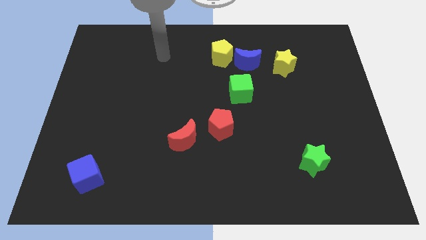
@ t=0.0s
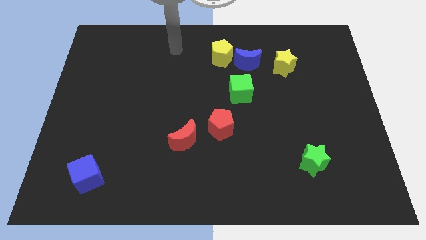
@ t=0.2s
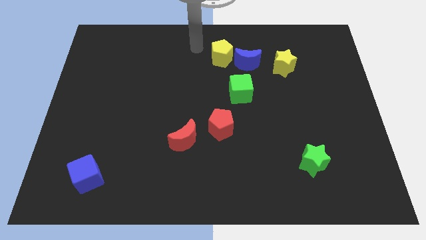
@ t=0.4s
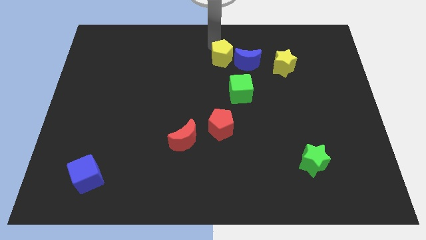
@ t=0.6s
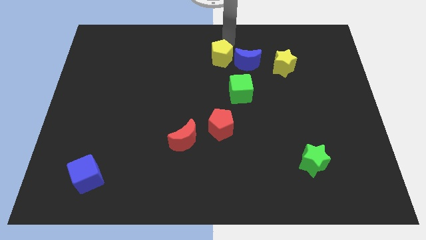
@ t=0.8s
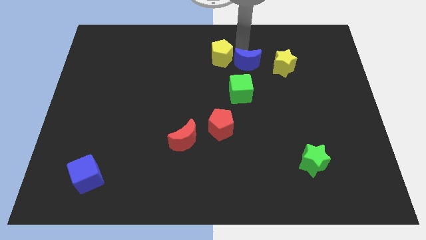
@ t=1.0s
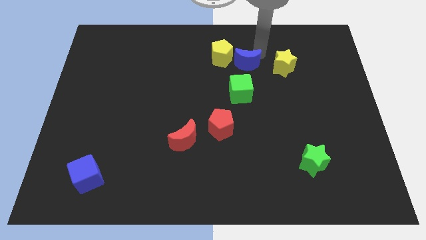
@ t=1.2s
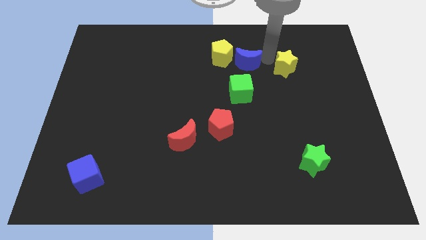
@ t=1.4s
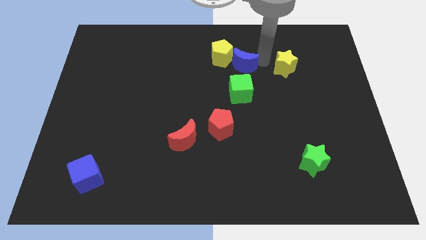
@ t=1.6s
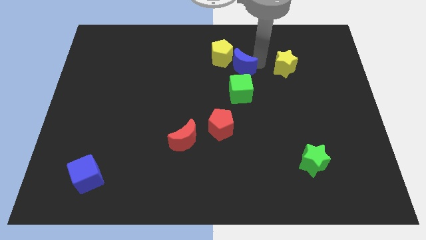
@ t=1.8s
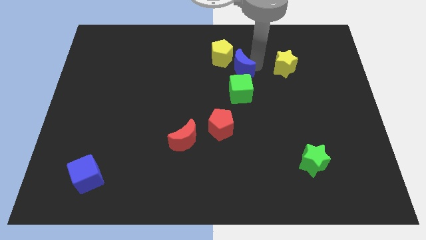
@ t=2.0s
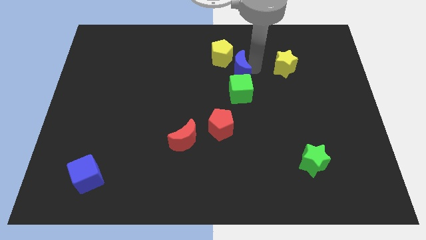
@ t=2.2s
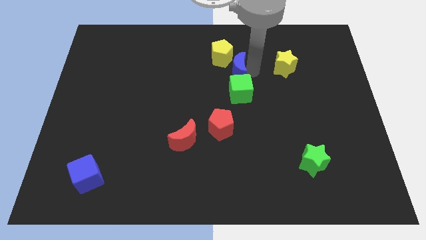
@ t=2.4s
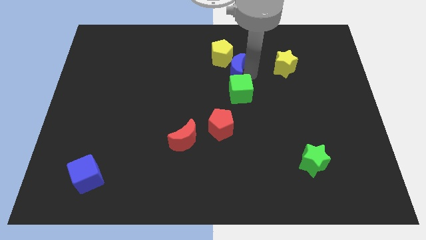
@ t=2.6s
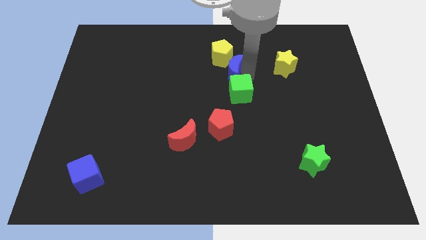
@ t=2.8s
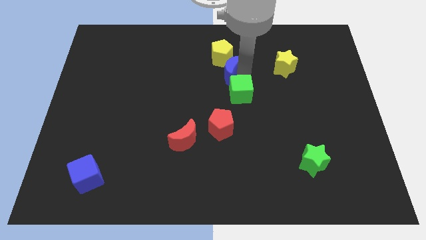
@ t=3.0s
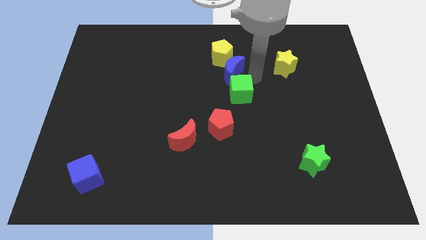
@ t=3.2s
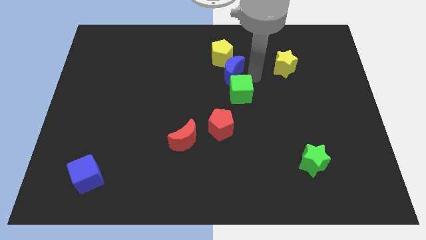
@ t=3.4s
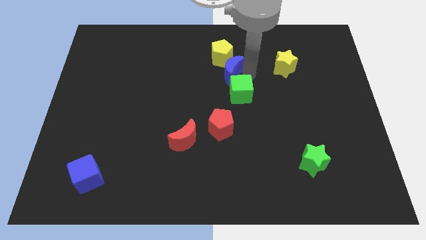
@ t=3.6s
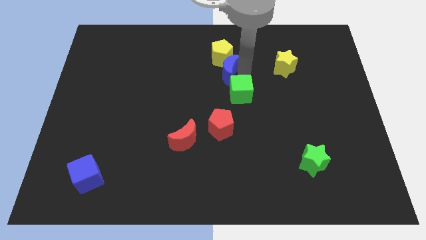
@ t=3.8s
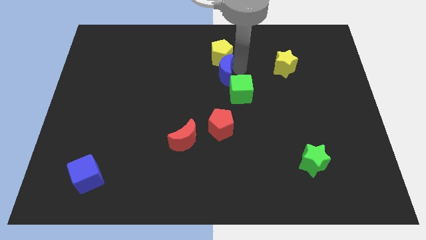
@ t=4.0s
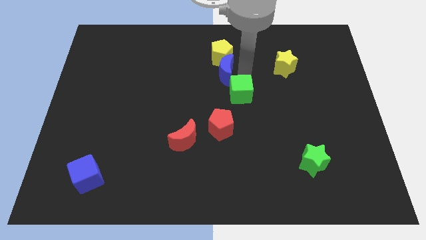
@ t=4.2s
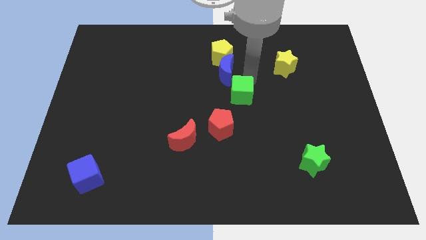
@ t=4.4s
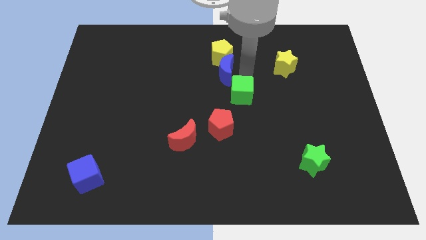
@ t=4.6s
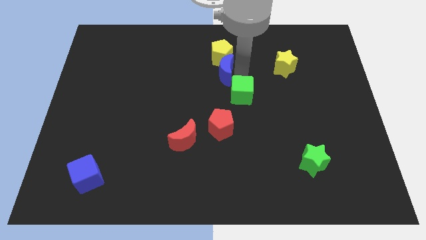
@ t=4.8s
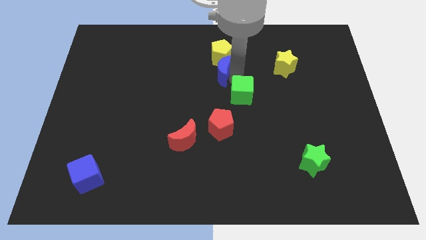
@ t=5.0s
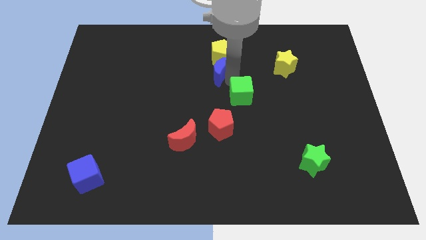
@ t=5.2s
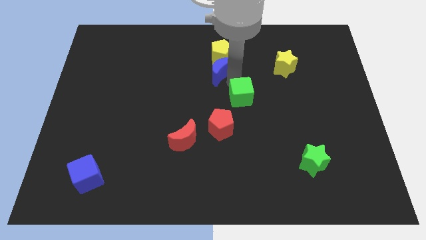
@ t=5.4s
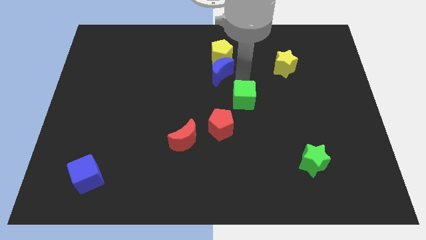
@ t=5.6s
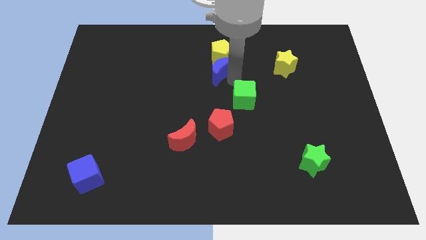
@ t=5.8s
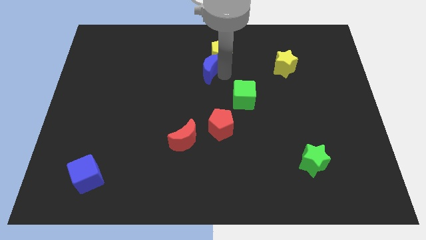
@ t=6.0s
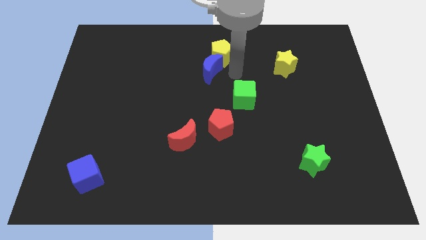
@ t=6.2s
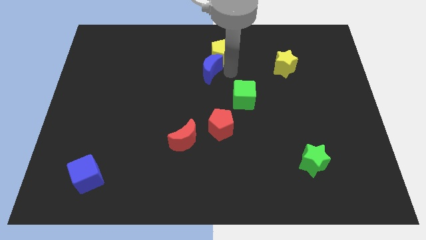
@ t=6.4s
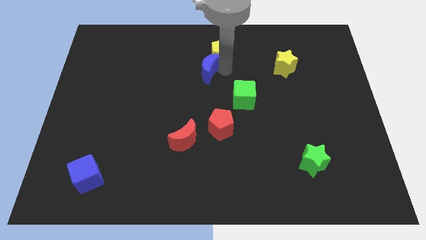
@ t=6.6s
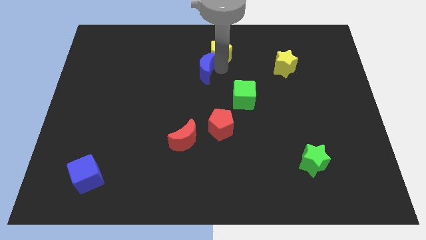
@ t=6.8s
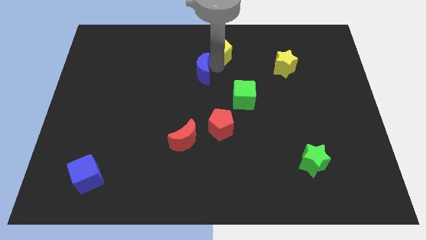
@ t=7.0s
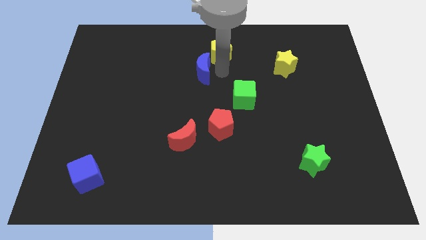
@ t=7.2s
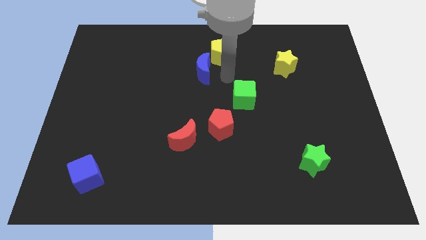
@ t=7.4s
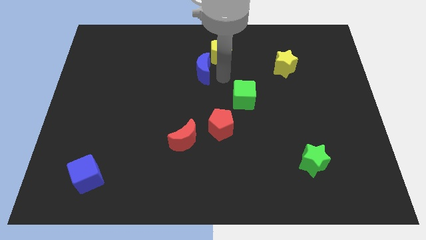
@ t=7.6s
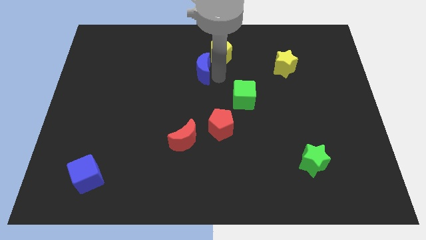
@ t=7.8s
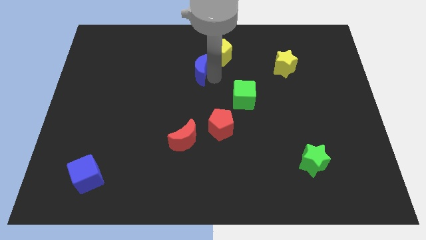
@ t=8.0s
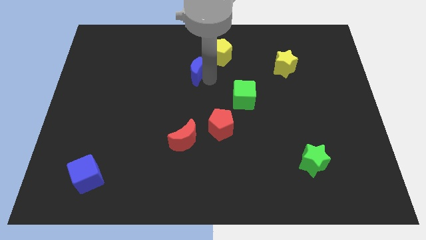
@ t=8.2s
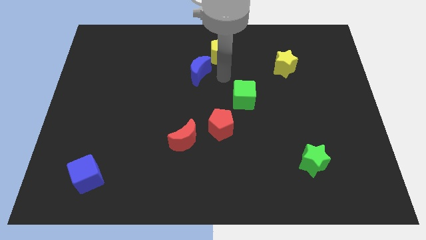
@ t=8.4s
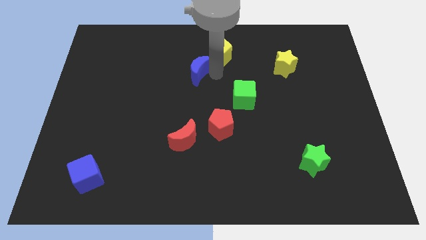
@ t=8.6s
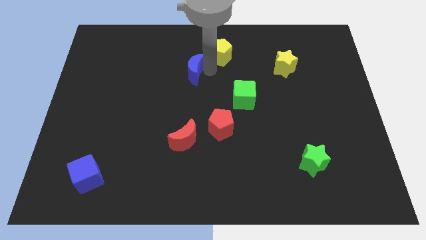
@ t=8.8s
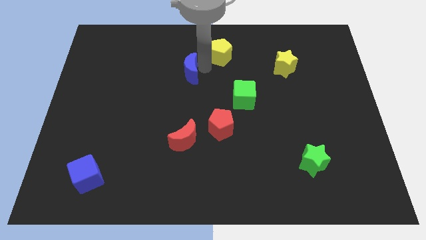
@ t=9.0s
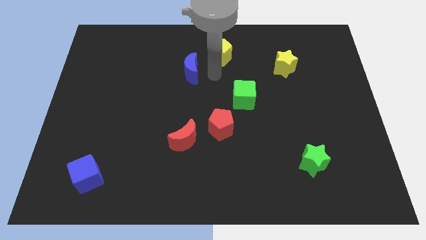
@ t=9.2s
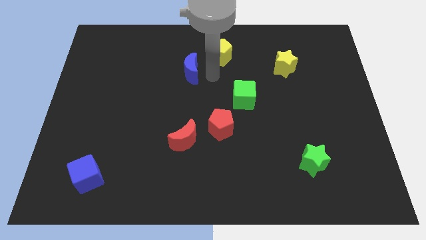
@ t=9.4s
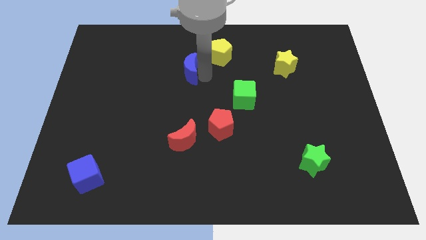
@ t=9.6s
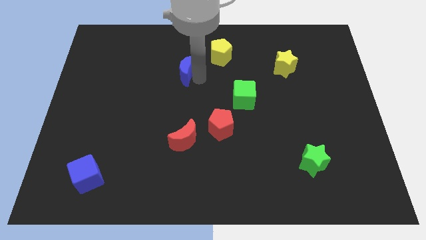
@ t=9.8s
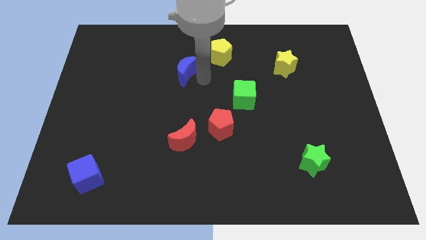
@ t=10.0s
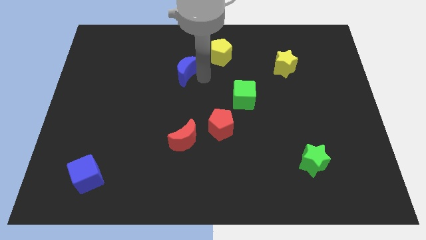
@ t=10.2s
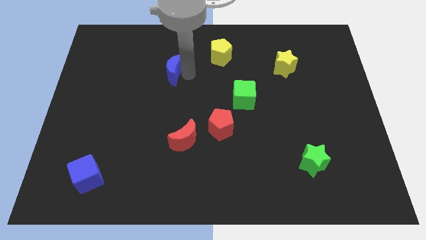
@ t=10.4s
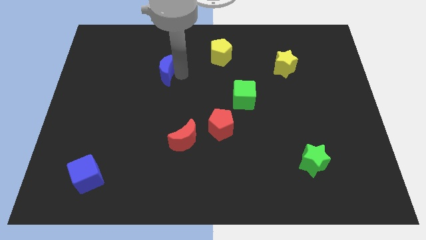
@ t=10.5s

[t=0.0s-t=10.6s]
slide the blue moon left

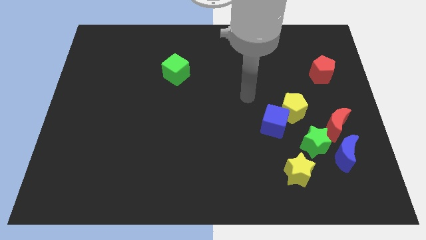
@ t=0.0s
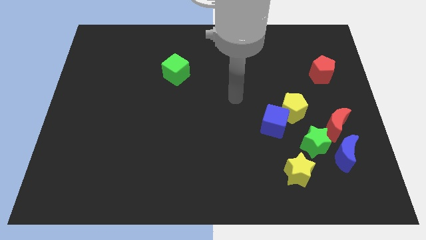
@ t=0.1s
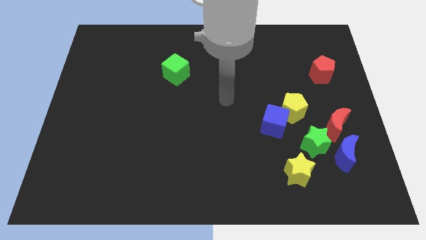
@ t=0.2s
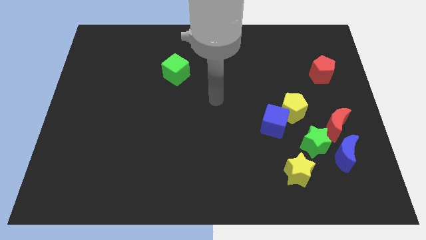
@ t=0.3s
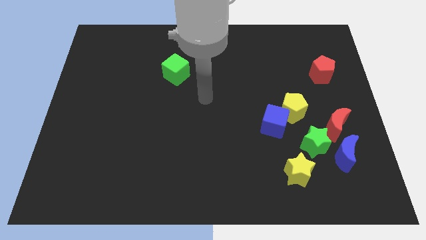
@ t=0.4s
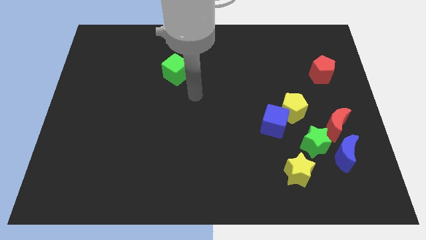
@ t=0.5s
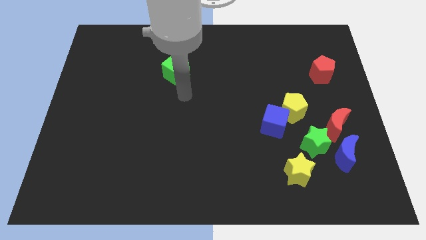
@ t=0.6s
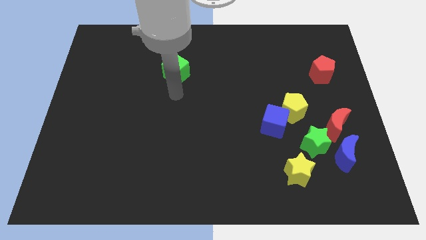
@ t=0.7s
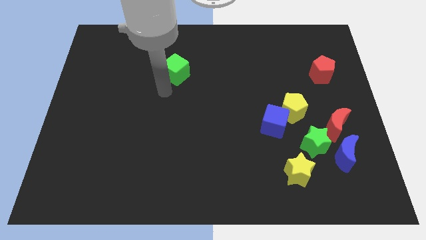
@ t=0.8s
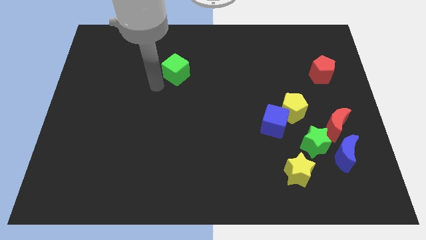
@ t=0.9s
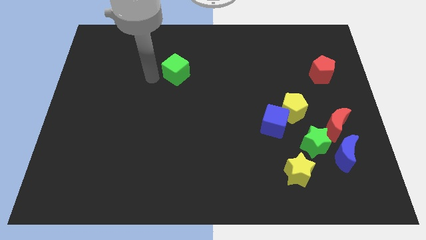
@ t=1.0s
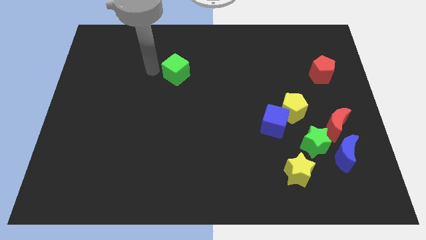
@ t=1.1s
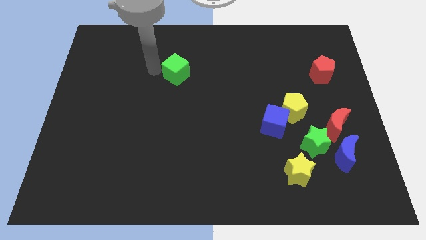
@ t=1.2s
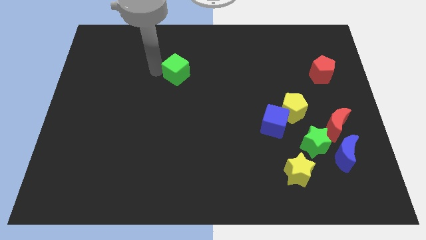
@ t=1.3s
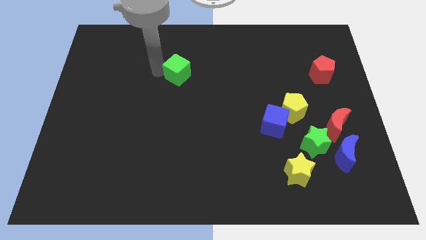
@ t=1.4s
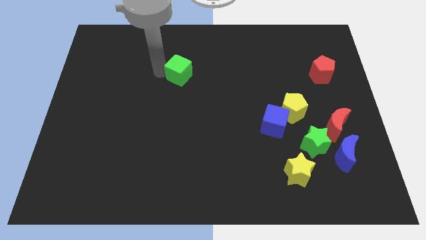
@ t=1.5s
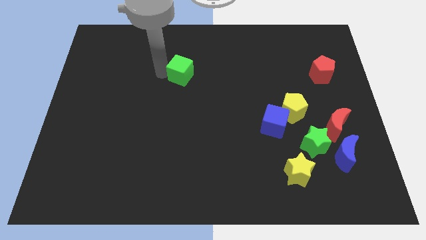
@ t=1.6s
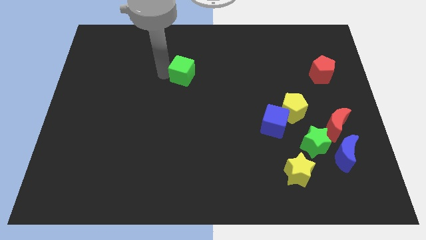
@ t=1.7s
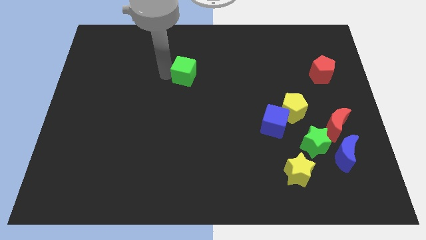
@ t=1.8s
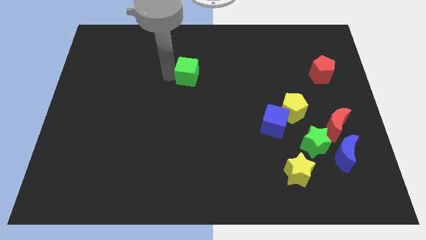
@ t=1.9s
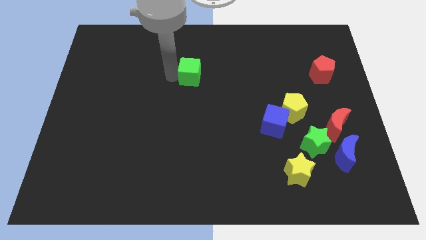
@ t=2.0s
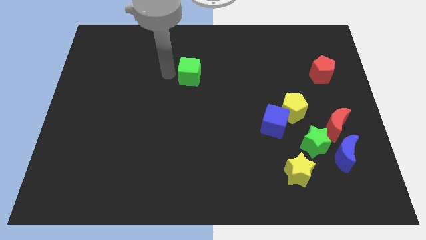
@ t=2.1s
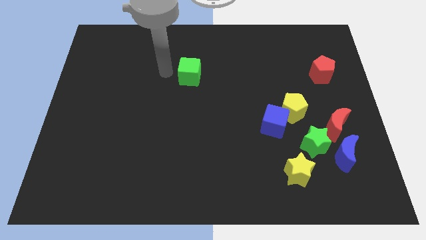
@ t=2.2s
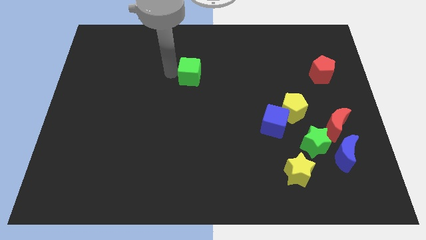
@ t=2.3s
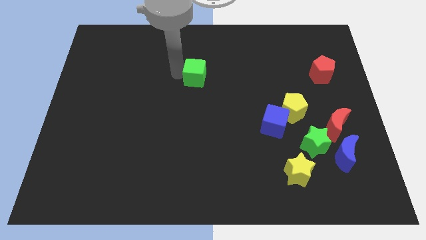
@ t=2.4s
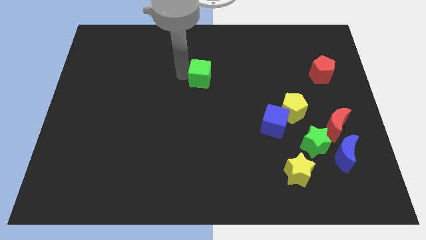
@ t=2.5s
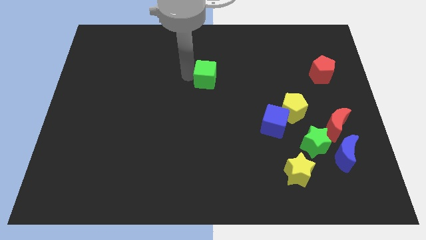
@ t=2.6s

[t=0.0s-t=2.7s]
move the green cube to the right a bit
